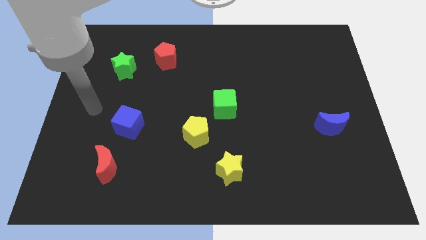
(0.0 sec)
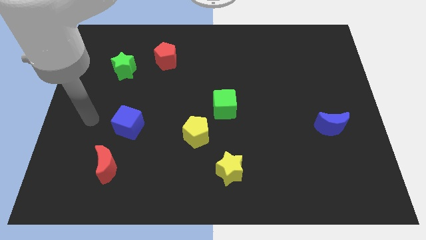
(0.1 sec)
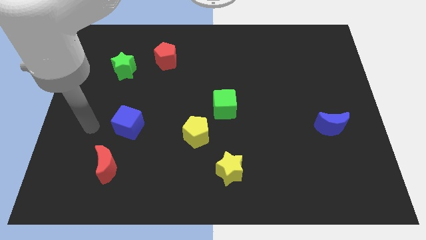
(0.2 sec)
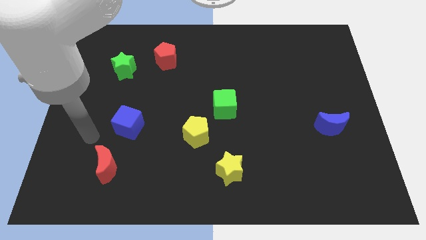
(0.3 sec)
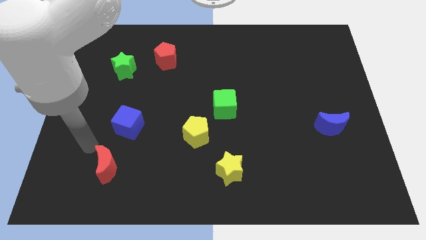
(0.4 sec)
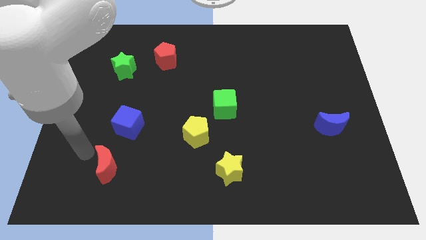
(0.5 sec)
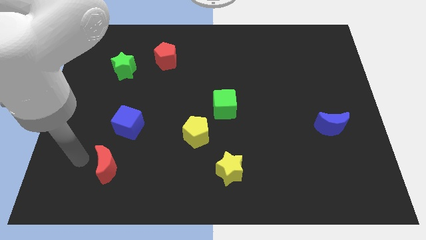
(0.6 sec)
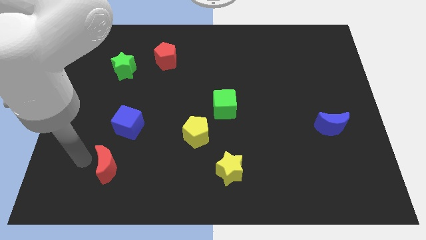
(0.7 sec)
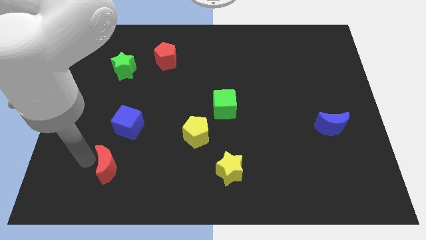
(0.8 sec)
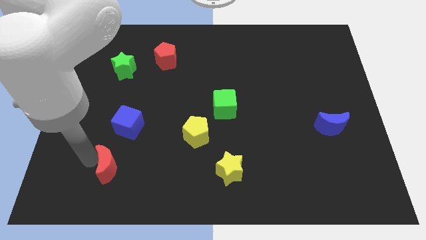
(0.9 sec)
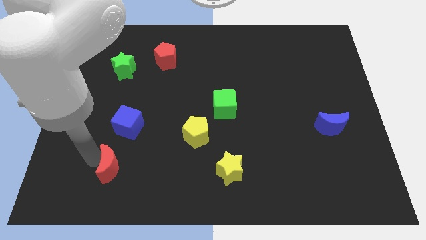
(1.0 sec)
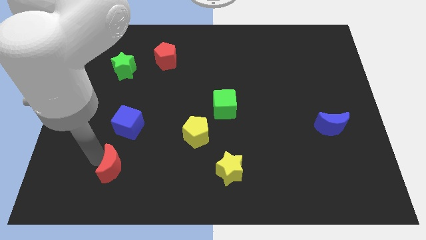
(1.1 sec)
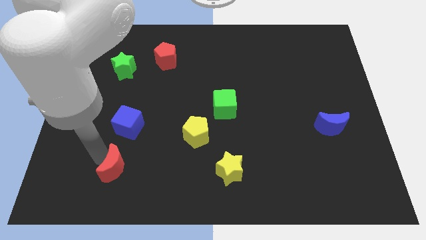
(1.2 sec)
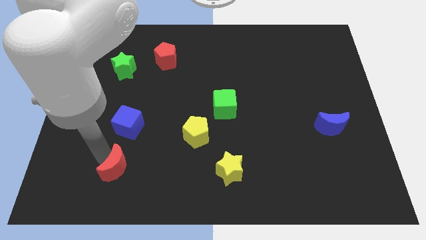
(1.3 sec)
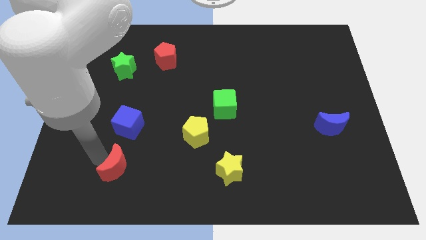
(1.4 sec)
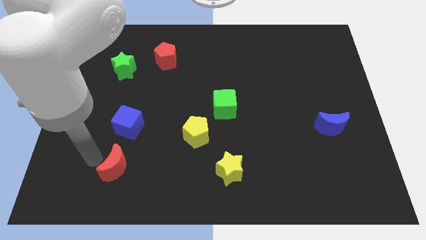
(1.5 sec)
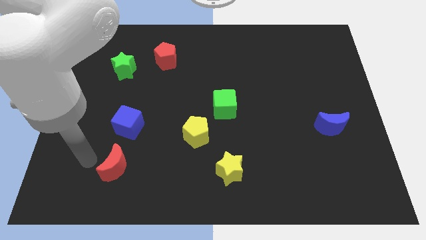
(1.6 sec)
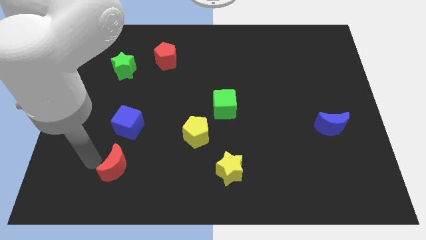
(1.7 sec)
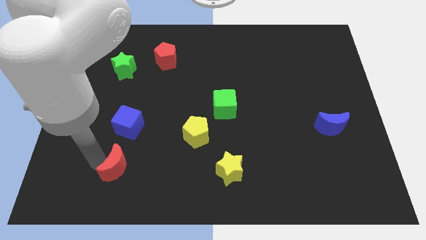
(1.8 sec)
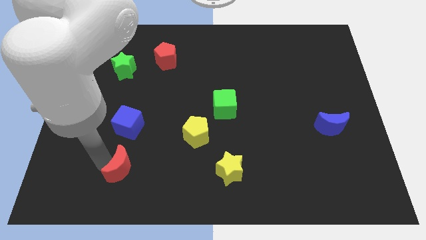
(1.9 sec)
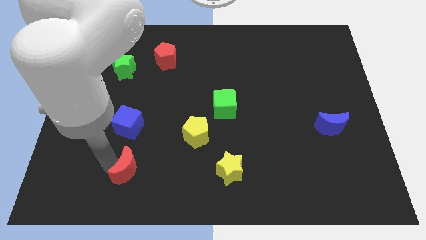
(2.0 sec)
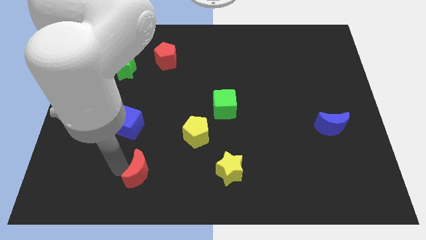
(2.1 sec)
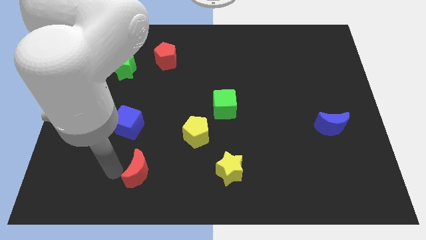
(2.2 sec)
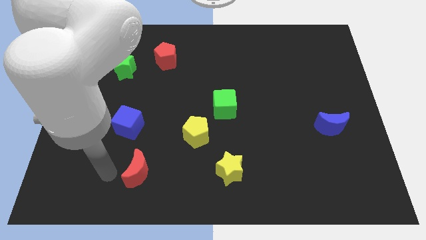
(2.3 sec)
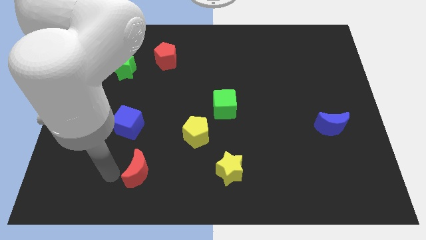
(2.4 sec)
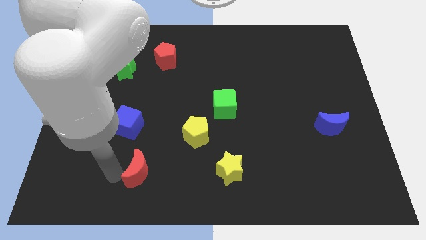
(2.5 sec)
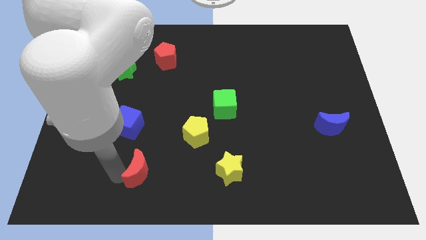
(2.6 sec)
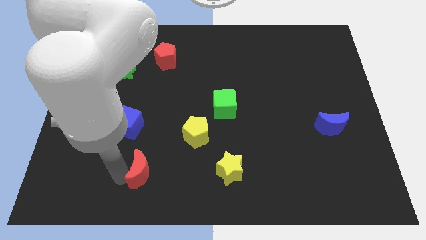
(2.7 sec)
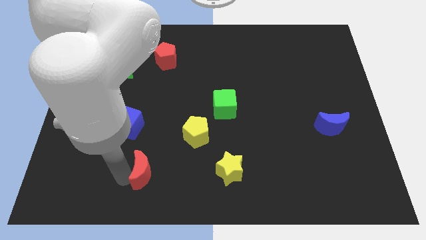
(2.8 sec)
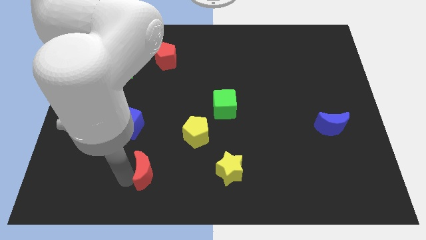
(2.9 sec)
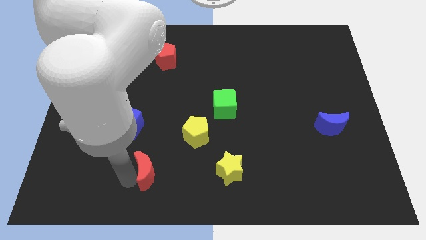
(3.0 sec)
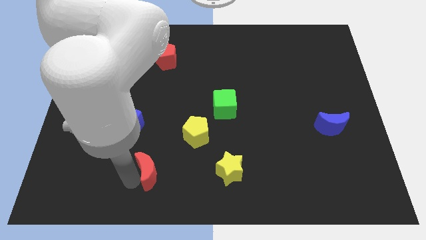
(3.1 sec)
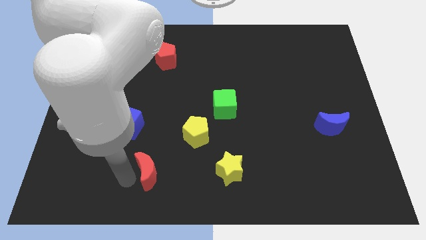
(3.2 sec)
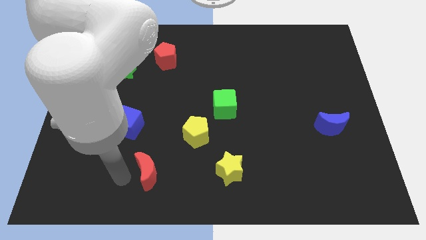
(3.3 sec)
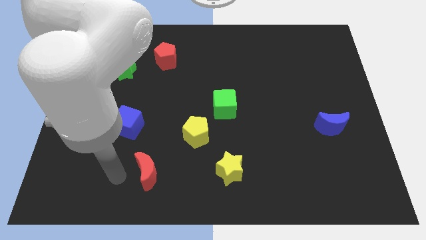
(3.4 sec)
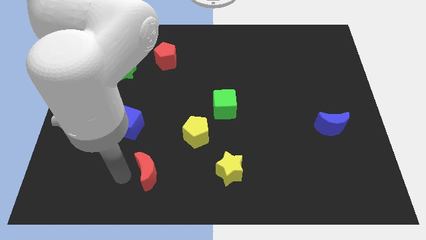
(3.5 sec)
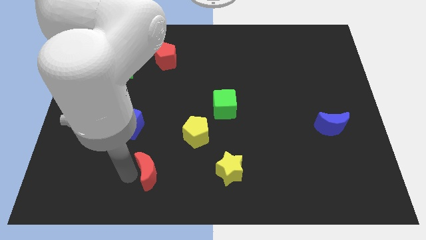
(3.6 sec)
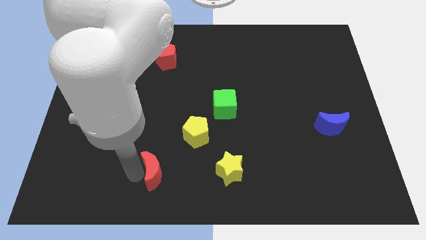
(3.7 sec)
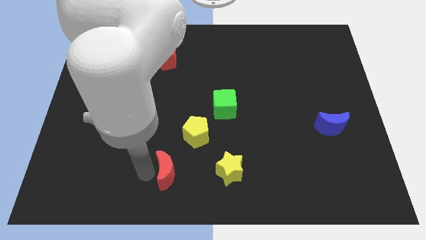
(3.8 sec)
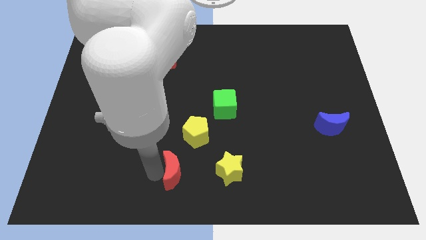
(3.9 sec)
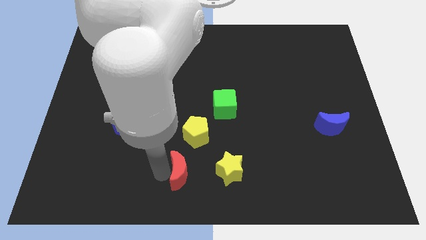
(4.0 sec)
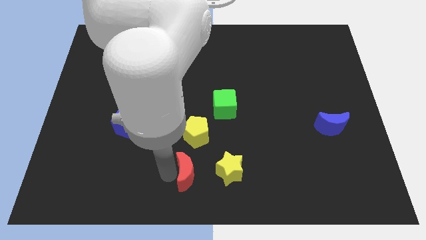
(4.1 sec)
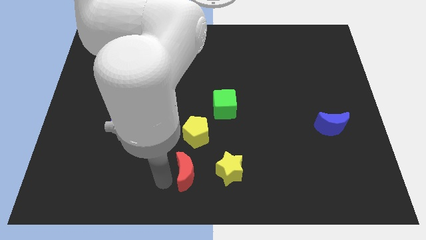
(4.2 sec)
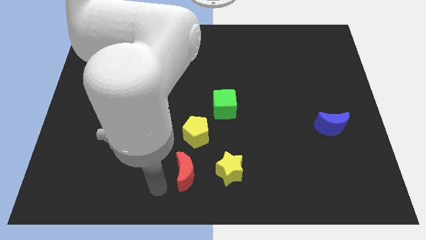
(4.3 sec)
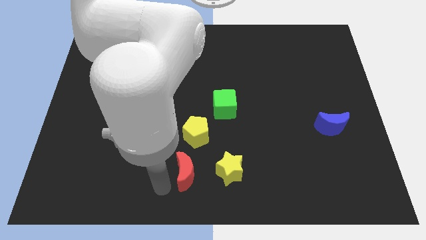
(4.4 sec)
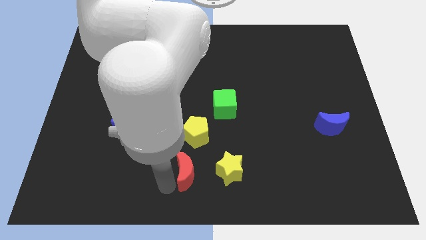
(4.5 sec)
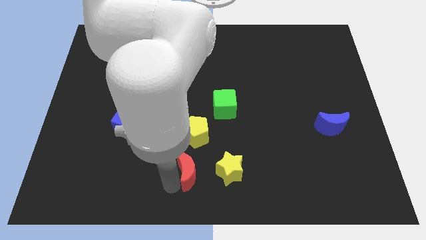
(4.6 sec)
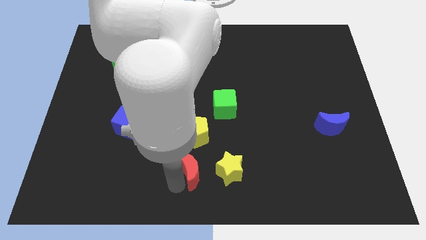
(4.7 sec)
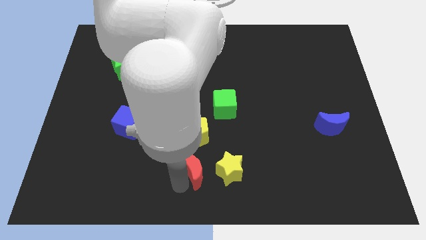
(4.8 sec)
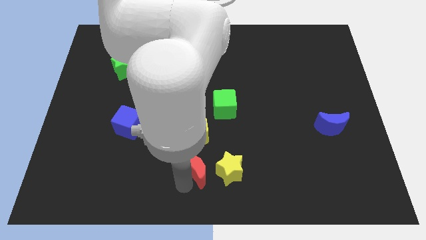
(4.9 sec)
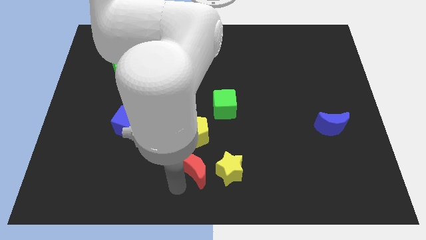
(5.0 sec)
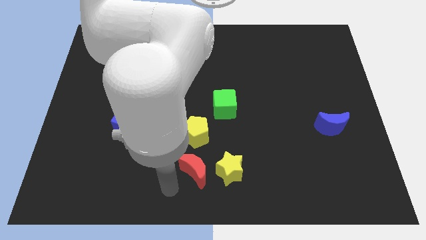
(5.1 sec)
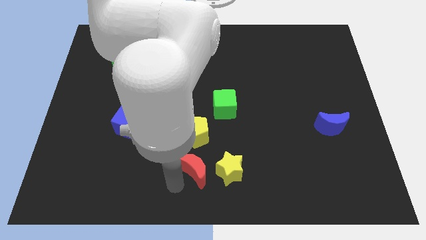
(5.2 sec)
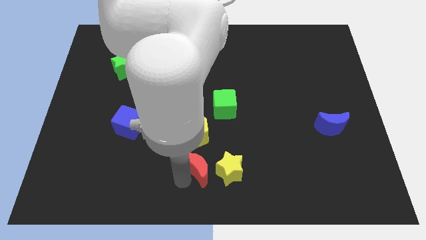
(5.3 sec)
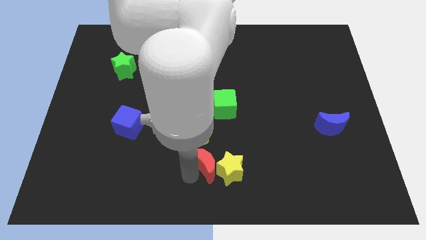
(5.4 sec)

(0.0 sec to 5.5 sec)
slide the red moon diagonally down and to the right of the yellow pentagon

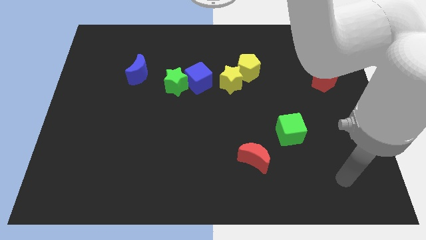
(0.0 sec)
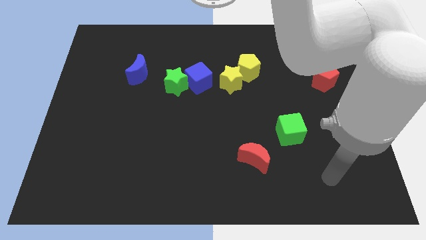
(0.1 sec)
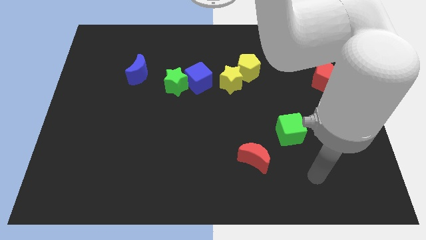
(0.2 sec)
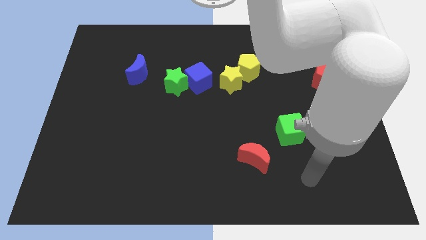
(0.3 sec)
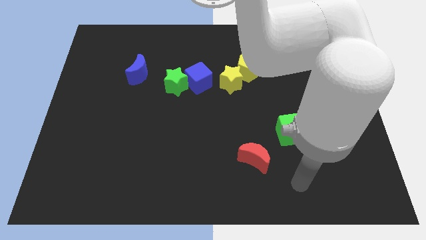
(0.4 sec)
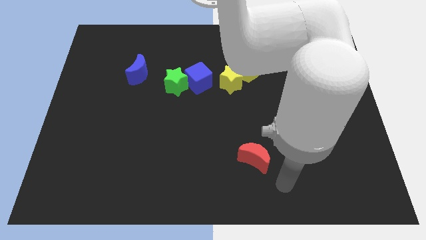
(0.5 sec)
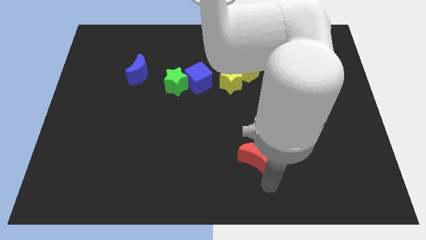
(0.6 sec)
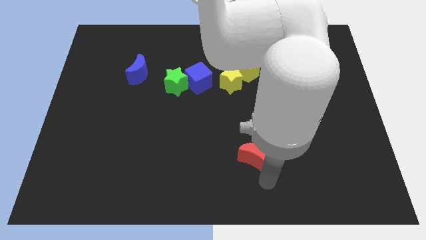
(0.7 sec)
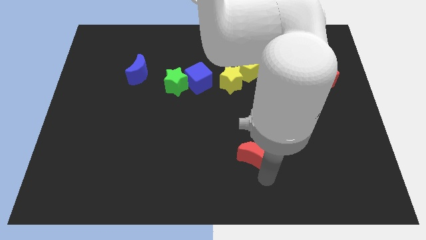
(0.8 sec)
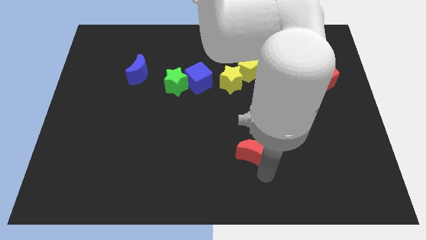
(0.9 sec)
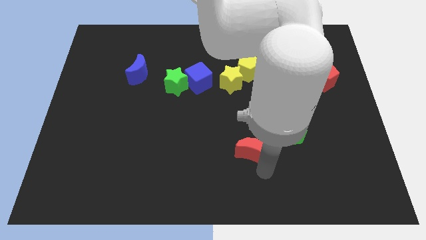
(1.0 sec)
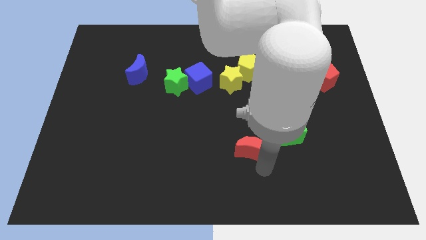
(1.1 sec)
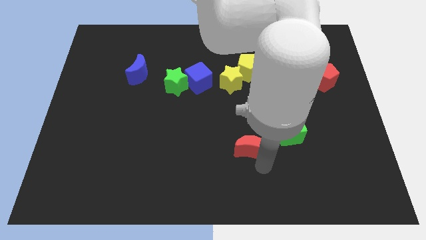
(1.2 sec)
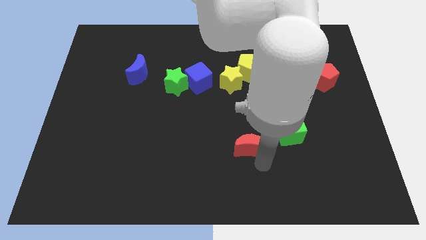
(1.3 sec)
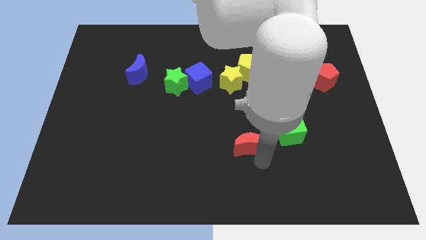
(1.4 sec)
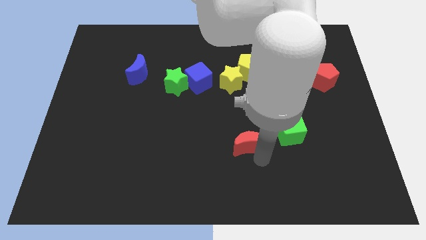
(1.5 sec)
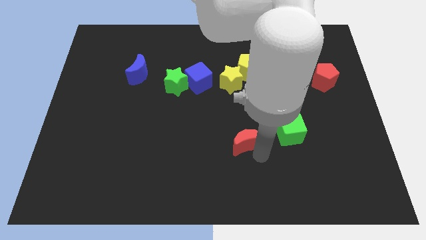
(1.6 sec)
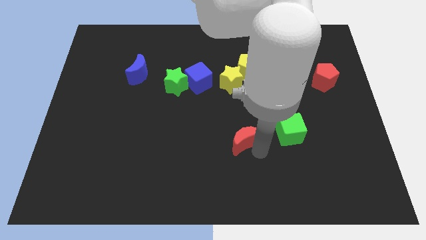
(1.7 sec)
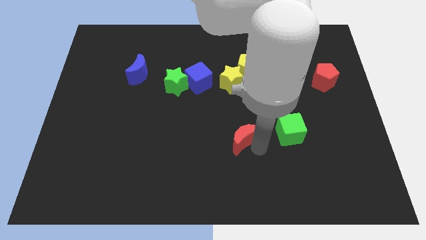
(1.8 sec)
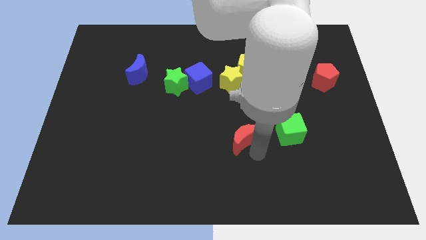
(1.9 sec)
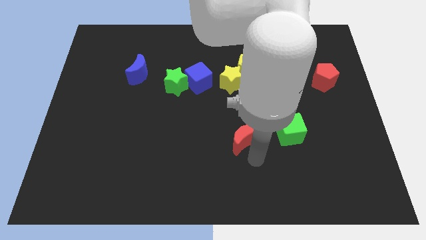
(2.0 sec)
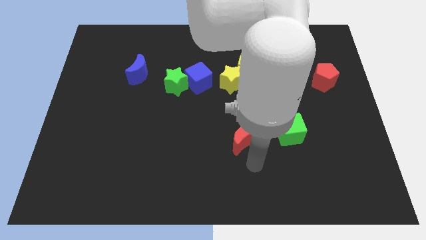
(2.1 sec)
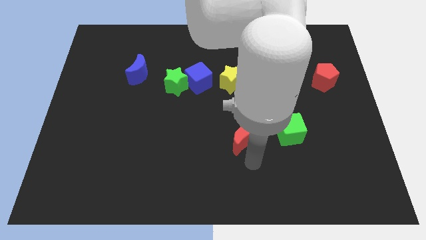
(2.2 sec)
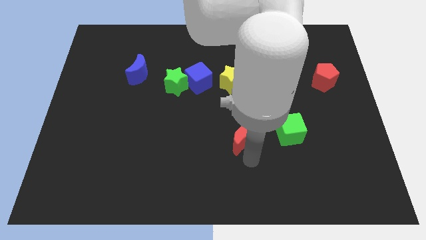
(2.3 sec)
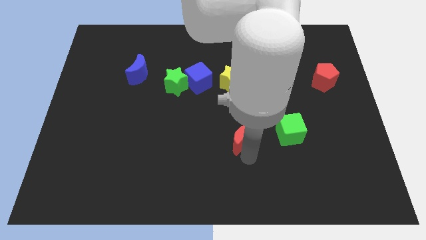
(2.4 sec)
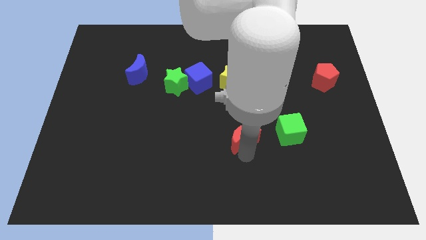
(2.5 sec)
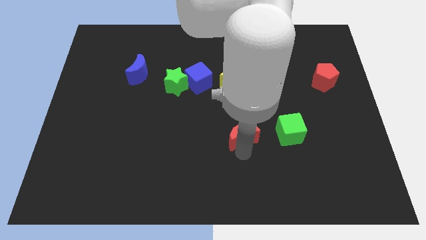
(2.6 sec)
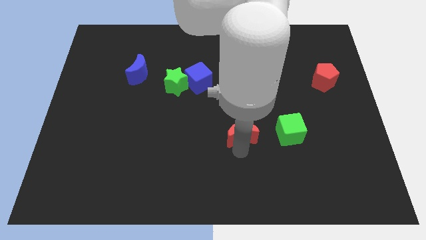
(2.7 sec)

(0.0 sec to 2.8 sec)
move the red moon to the bottom of the yellow star
